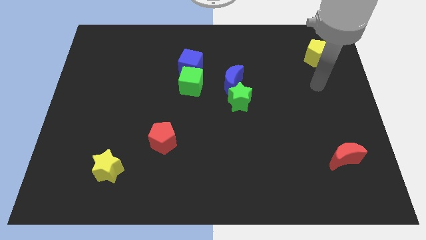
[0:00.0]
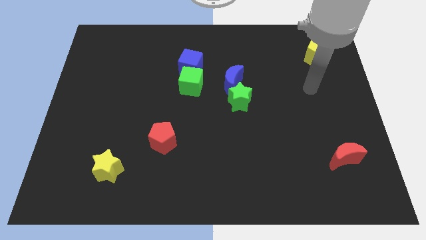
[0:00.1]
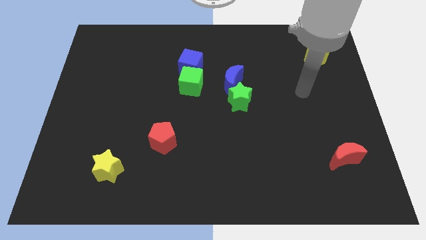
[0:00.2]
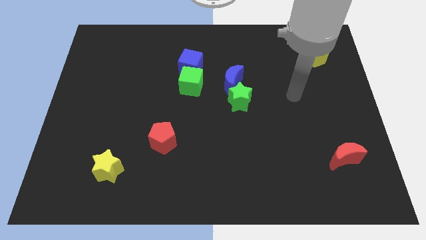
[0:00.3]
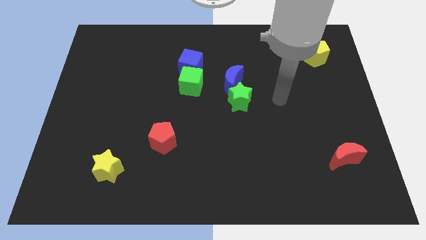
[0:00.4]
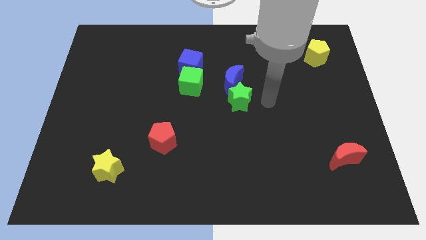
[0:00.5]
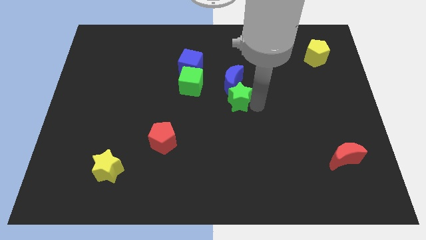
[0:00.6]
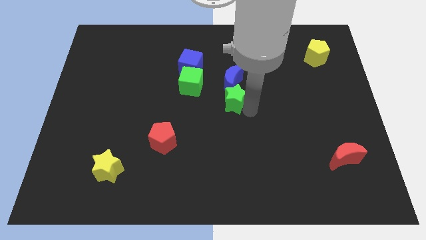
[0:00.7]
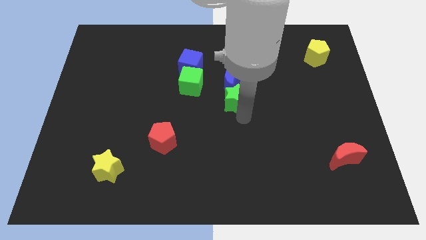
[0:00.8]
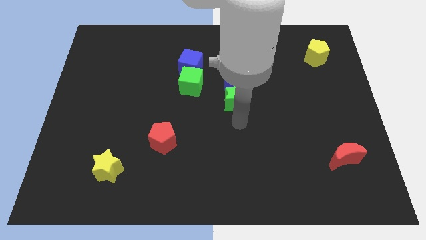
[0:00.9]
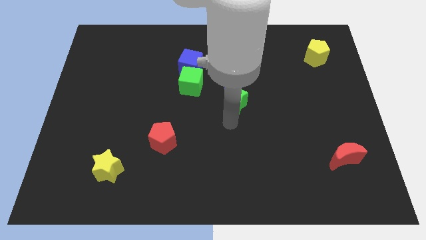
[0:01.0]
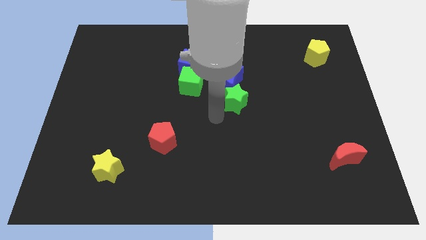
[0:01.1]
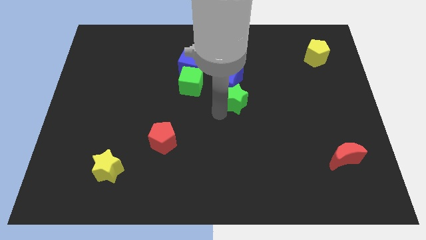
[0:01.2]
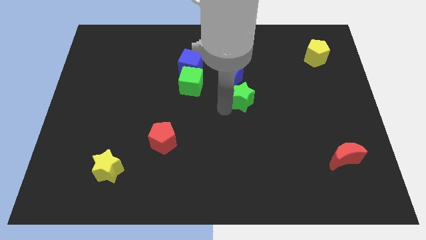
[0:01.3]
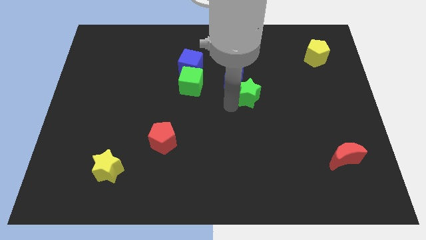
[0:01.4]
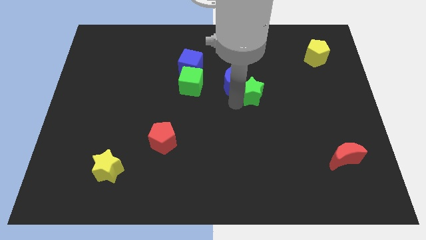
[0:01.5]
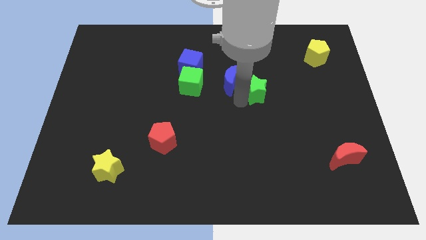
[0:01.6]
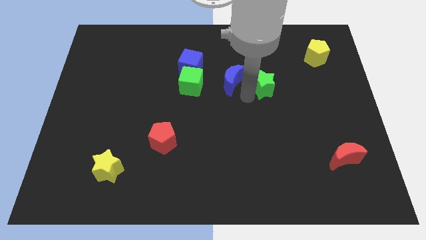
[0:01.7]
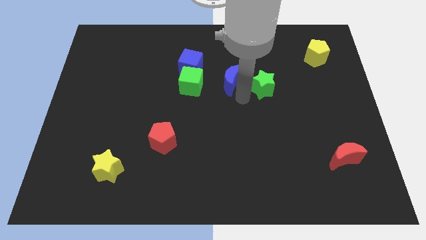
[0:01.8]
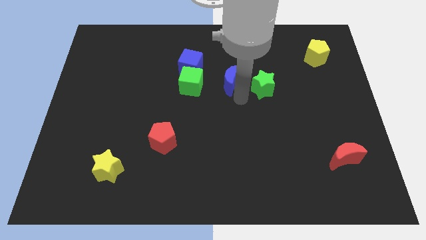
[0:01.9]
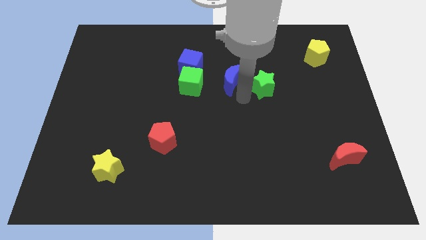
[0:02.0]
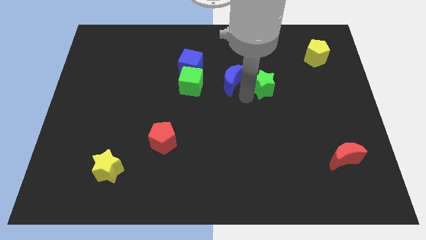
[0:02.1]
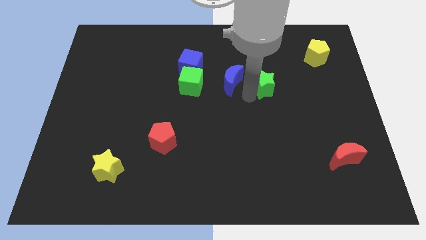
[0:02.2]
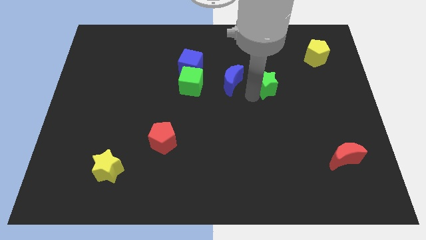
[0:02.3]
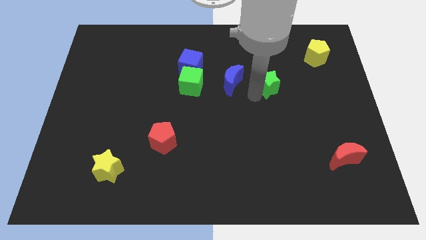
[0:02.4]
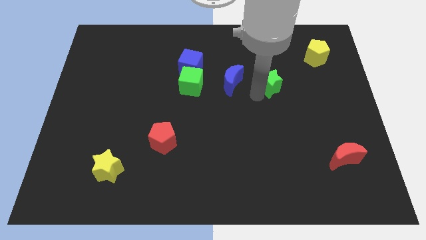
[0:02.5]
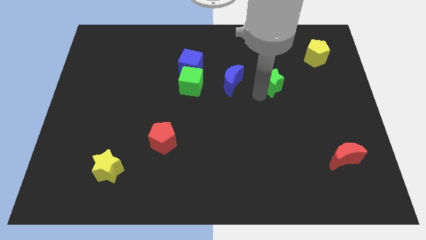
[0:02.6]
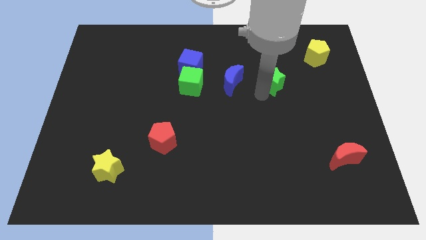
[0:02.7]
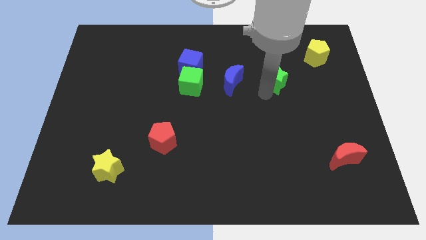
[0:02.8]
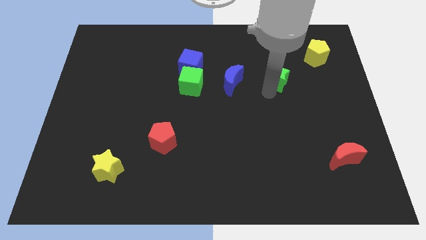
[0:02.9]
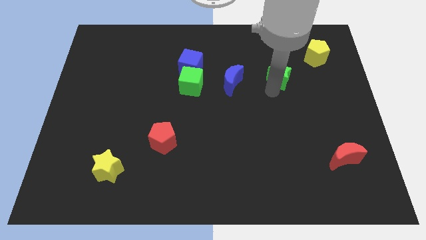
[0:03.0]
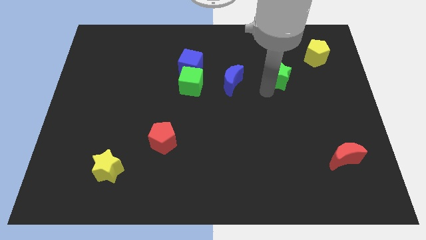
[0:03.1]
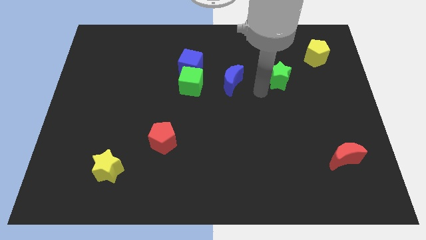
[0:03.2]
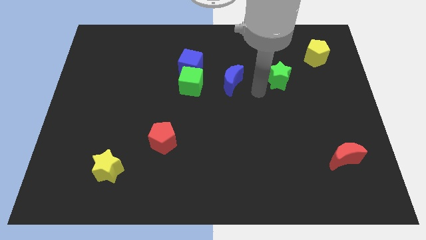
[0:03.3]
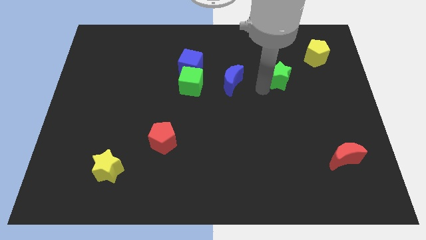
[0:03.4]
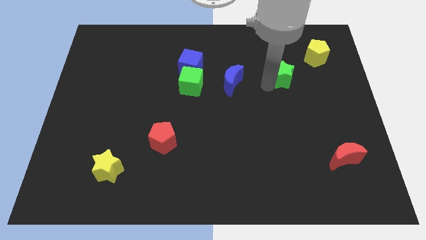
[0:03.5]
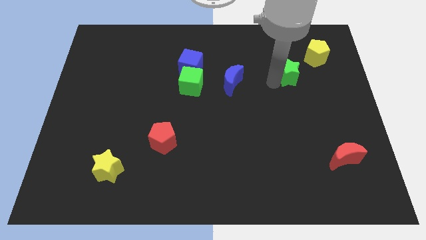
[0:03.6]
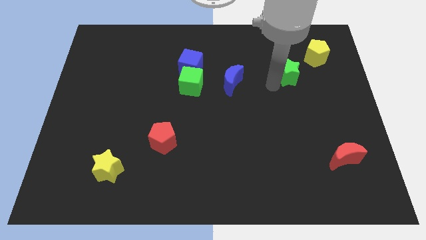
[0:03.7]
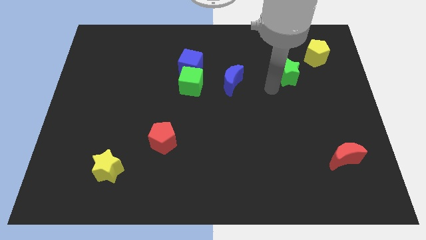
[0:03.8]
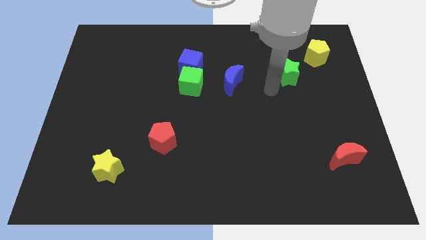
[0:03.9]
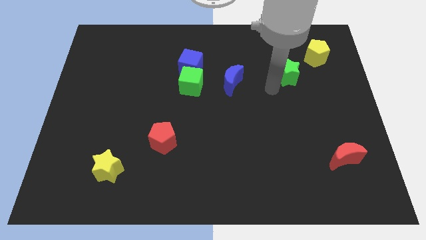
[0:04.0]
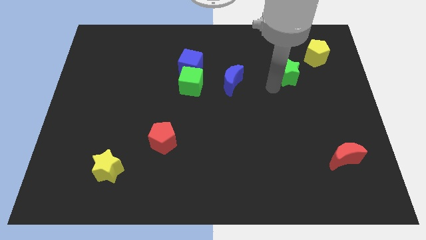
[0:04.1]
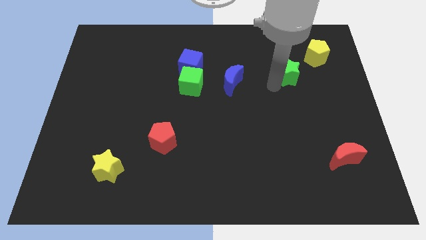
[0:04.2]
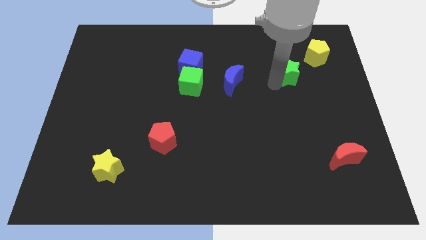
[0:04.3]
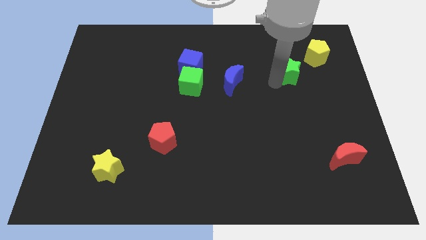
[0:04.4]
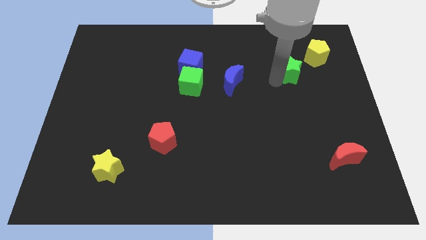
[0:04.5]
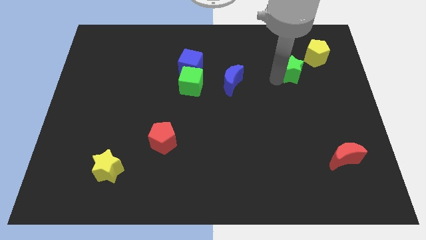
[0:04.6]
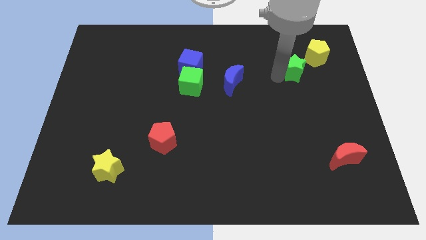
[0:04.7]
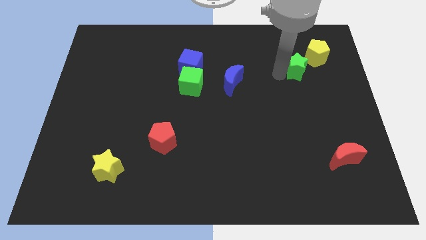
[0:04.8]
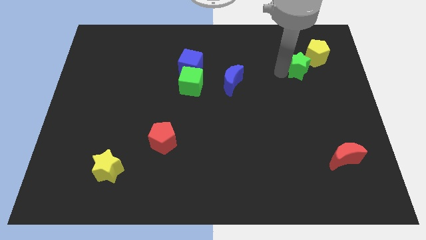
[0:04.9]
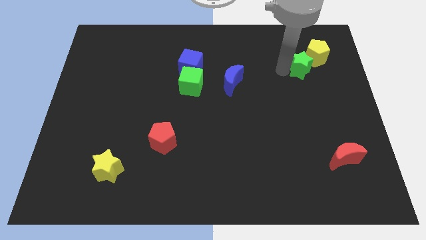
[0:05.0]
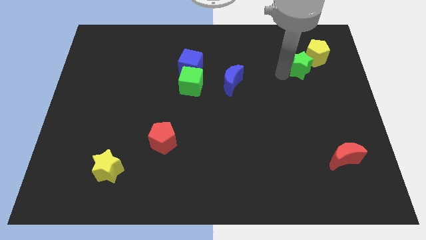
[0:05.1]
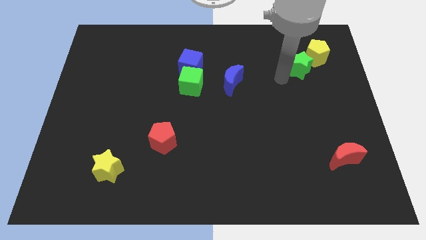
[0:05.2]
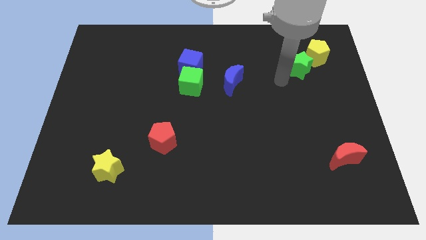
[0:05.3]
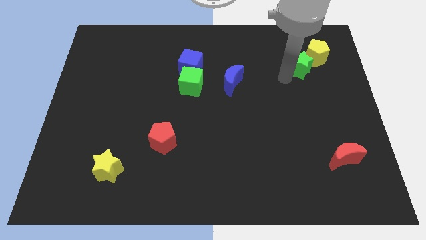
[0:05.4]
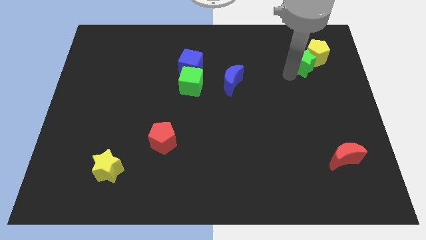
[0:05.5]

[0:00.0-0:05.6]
slide the green star to the yellow pentagon

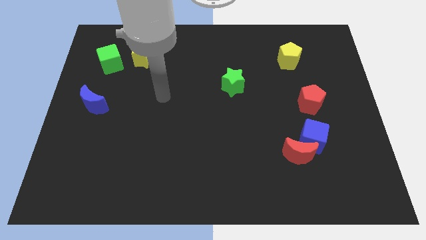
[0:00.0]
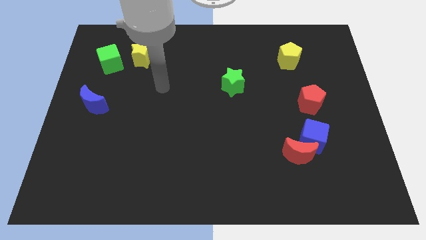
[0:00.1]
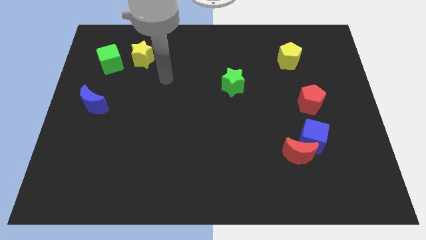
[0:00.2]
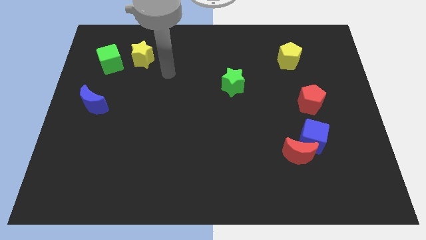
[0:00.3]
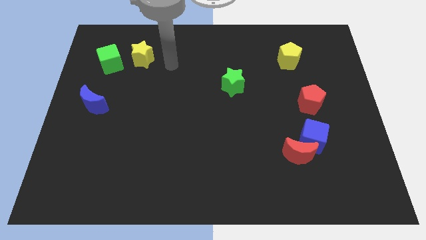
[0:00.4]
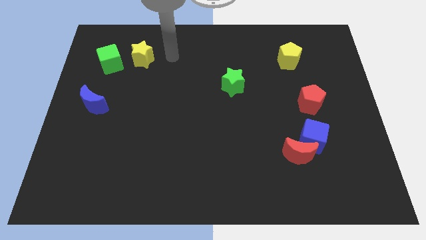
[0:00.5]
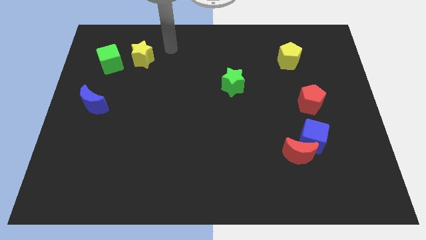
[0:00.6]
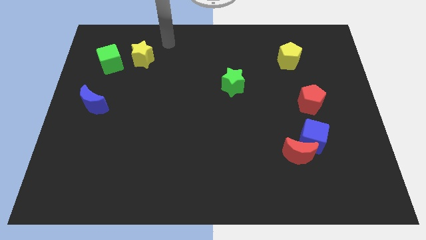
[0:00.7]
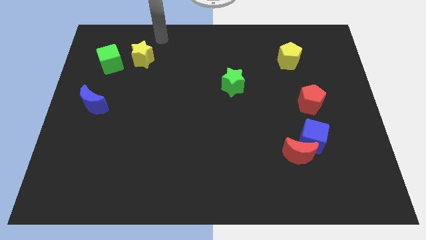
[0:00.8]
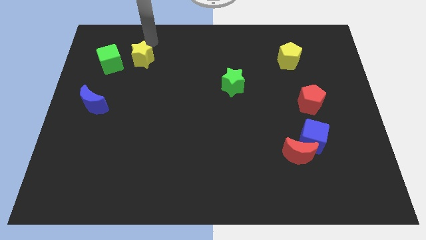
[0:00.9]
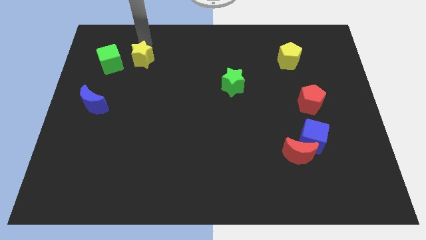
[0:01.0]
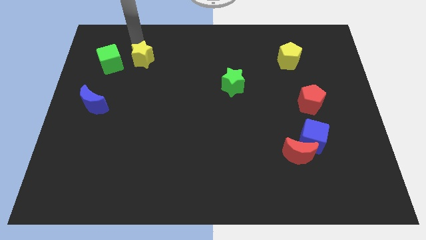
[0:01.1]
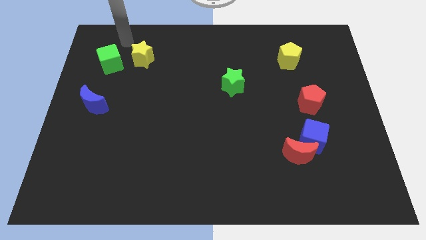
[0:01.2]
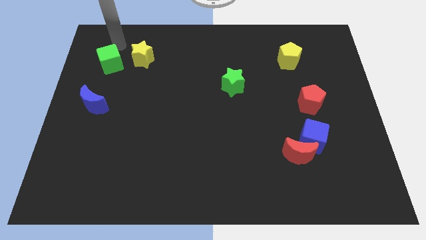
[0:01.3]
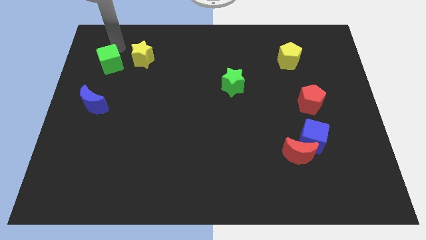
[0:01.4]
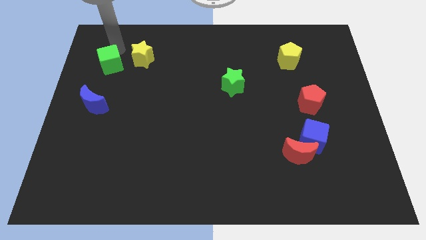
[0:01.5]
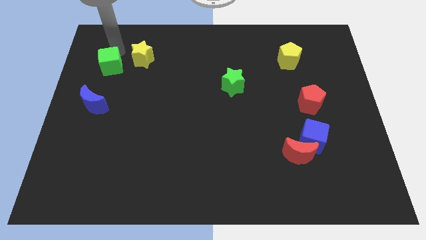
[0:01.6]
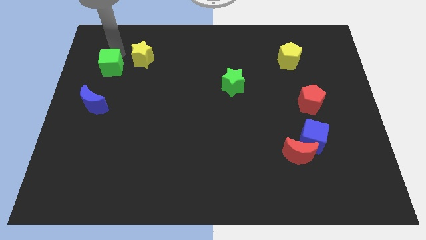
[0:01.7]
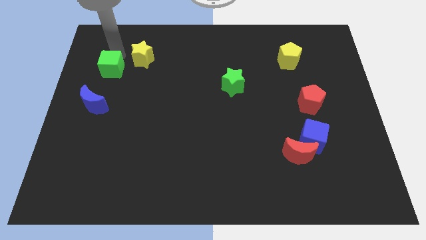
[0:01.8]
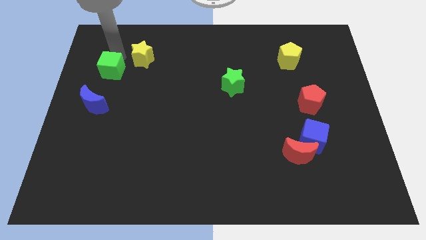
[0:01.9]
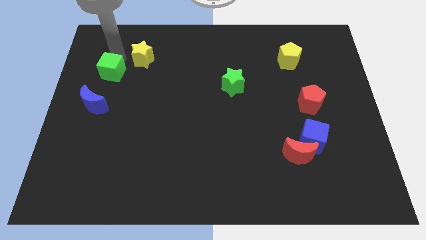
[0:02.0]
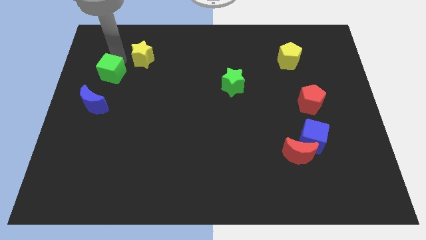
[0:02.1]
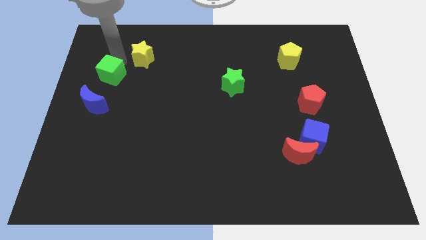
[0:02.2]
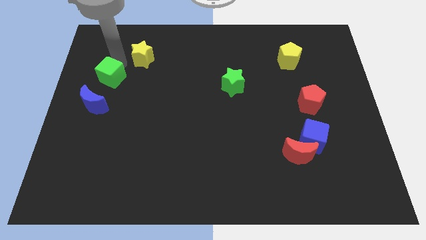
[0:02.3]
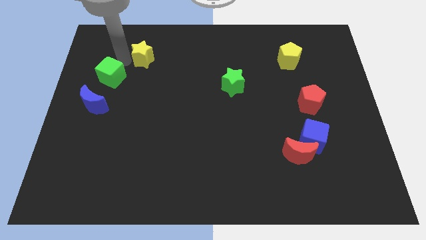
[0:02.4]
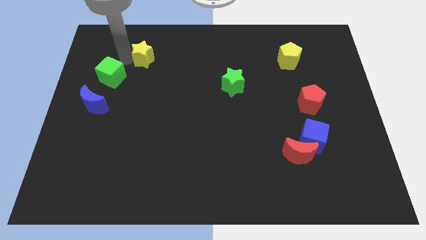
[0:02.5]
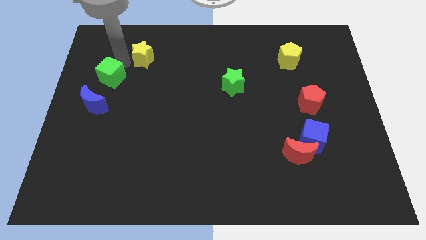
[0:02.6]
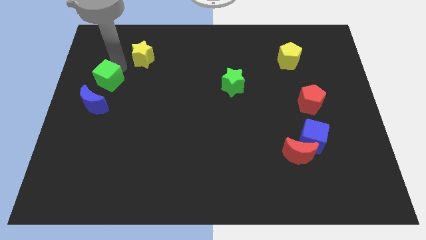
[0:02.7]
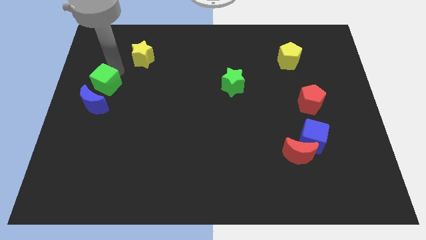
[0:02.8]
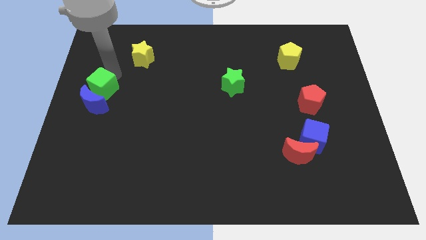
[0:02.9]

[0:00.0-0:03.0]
put the green cube towards the blue moon
